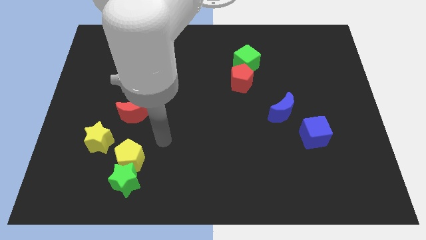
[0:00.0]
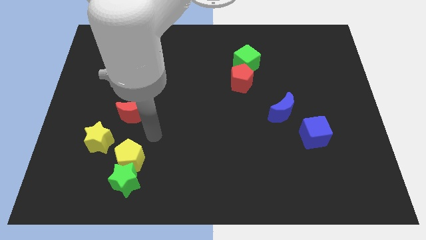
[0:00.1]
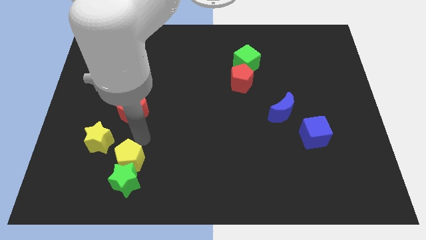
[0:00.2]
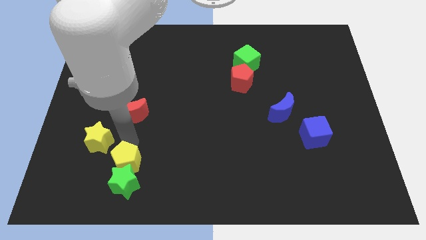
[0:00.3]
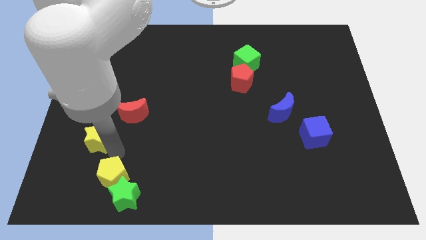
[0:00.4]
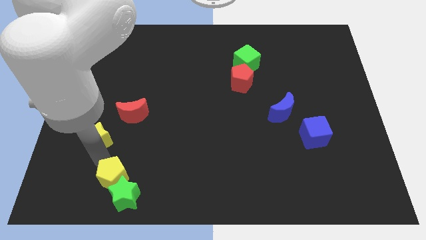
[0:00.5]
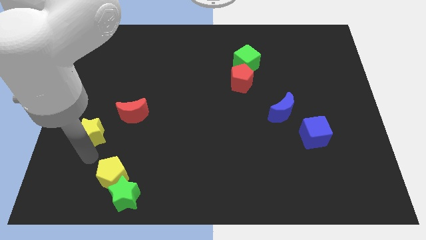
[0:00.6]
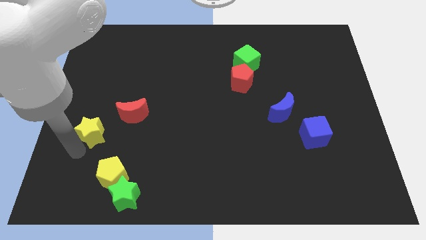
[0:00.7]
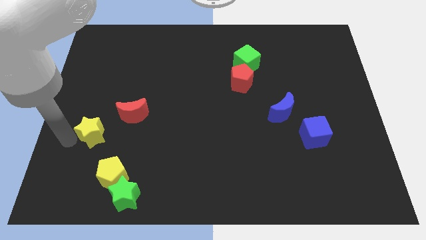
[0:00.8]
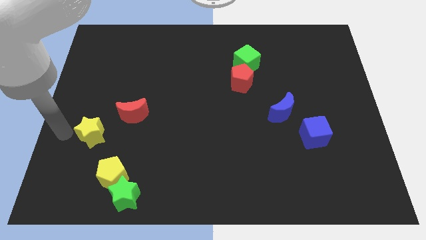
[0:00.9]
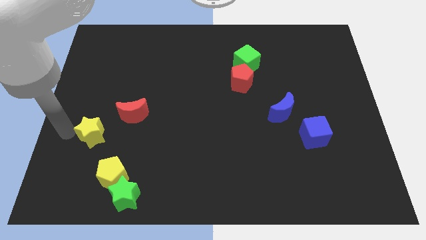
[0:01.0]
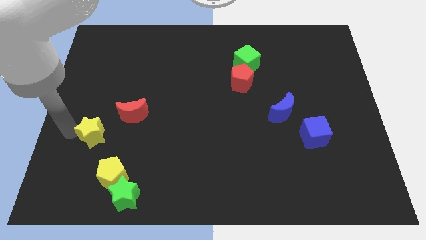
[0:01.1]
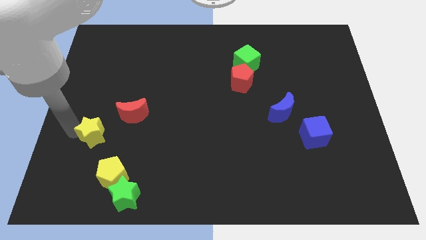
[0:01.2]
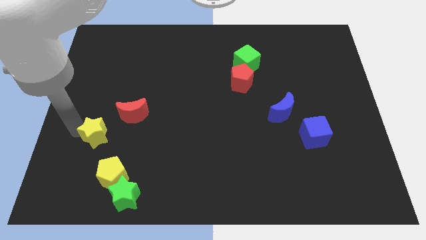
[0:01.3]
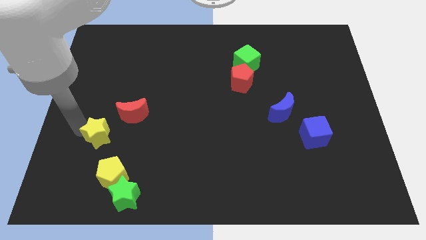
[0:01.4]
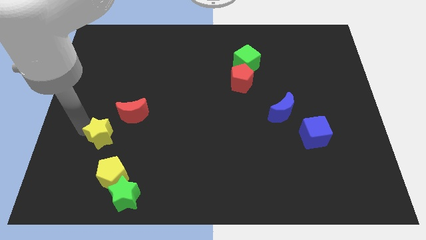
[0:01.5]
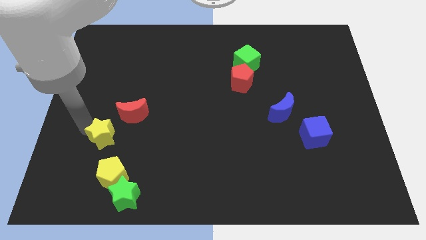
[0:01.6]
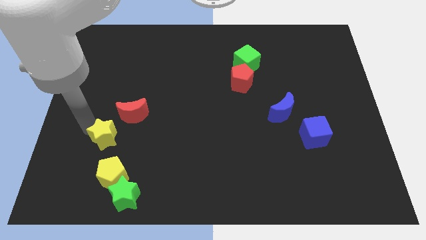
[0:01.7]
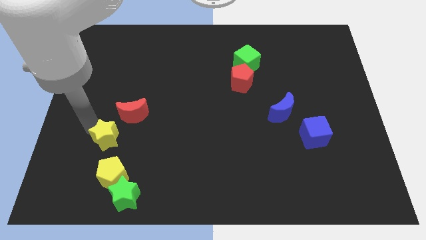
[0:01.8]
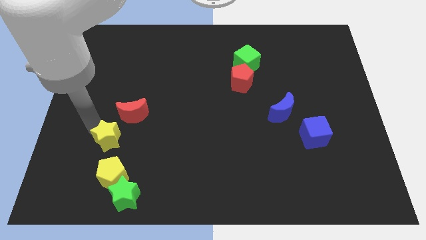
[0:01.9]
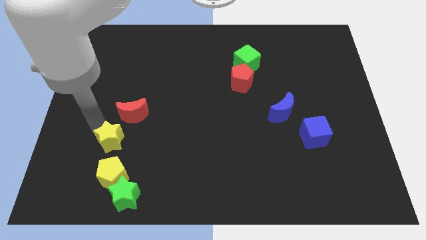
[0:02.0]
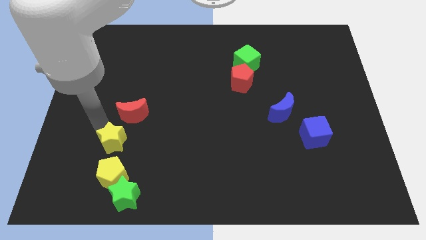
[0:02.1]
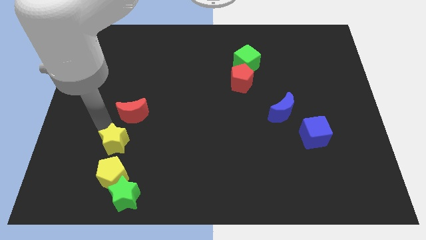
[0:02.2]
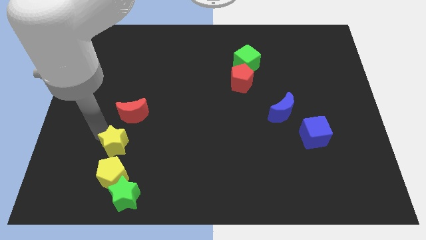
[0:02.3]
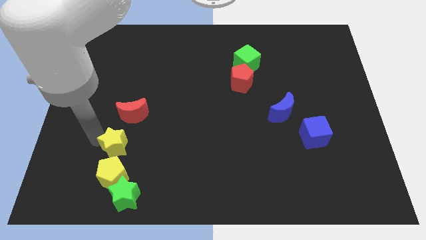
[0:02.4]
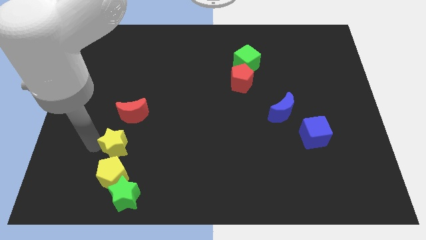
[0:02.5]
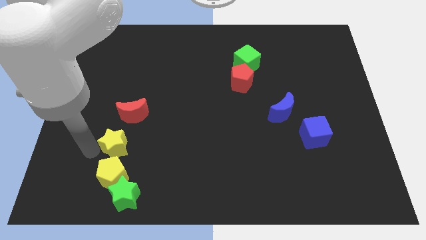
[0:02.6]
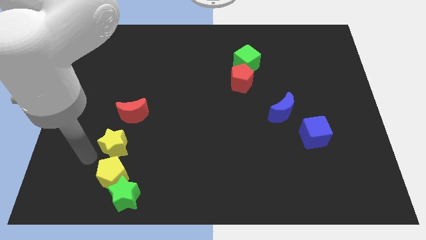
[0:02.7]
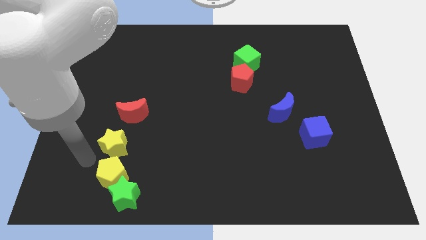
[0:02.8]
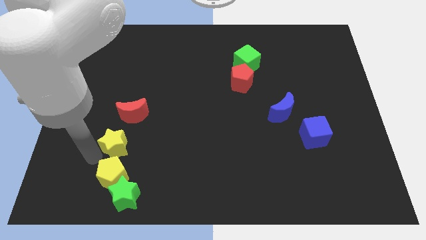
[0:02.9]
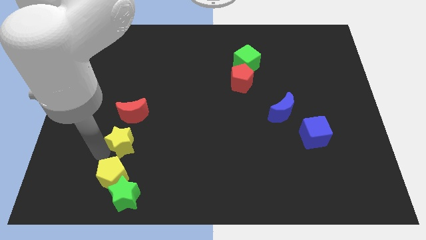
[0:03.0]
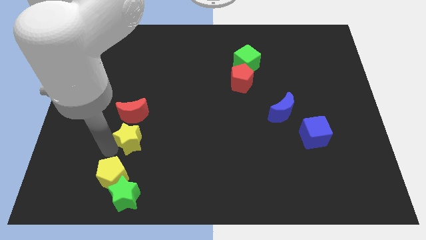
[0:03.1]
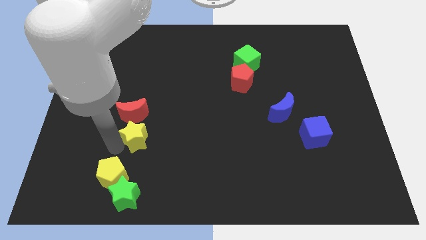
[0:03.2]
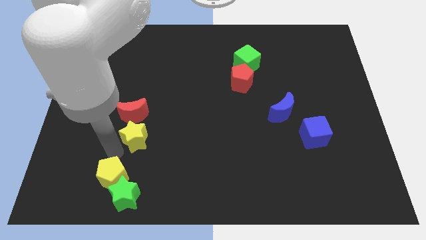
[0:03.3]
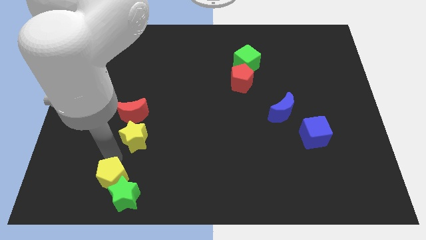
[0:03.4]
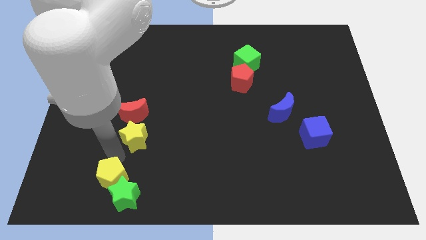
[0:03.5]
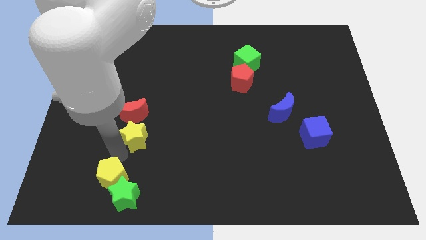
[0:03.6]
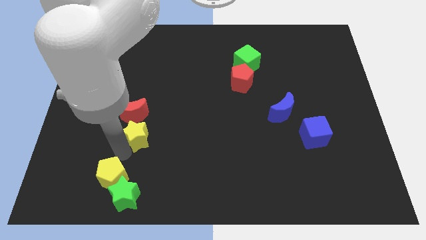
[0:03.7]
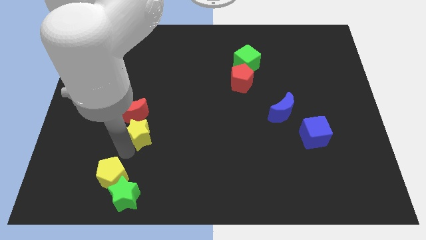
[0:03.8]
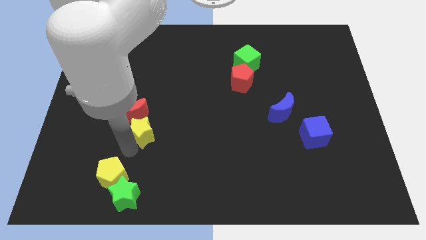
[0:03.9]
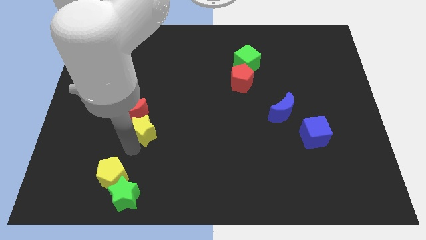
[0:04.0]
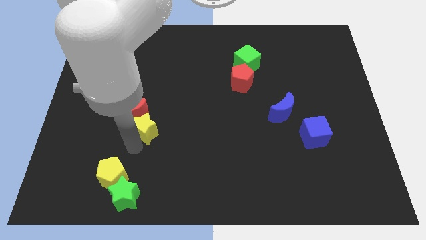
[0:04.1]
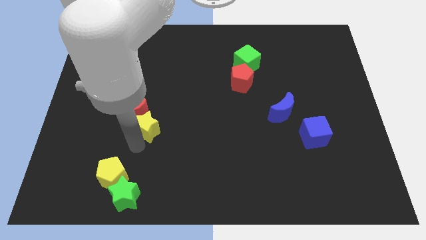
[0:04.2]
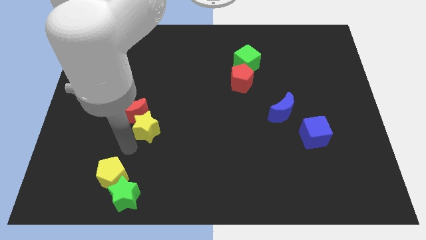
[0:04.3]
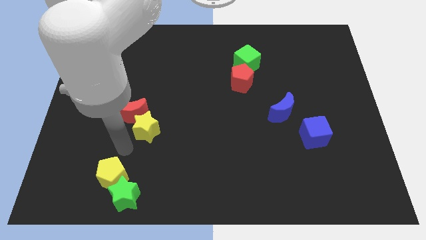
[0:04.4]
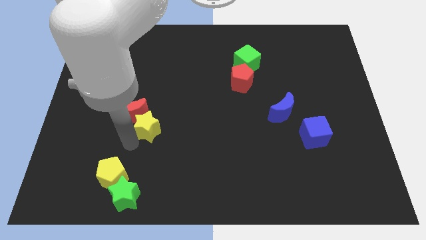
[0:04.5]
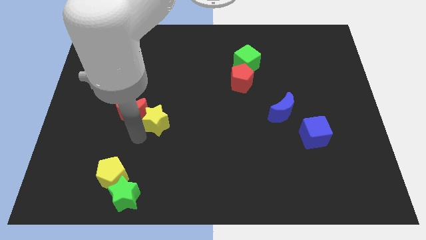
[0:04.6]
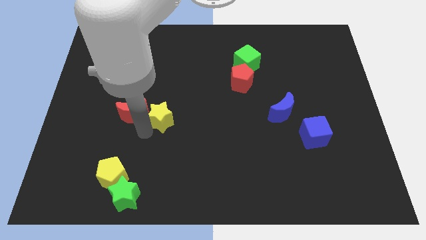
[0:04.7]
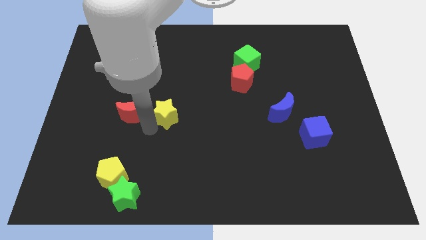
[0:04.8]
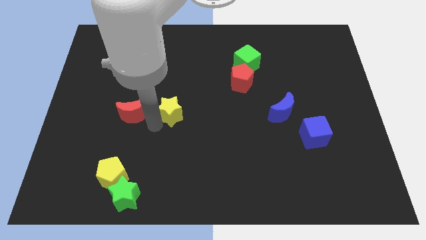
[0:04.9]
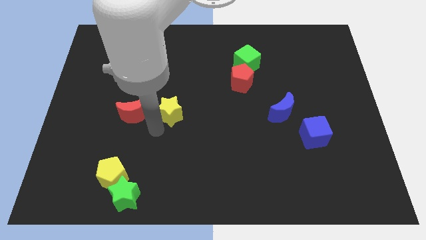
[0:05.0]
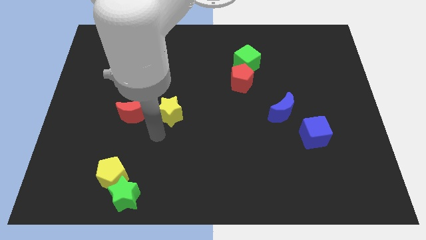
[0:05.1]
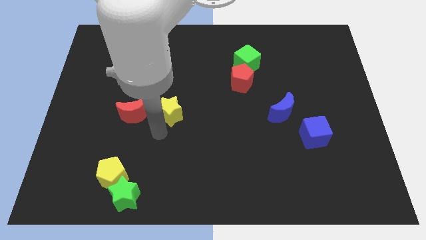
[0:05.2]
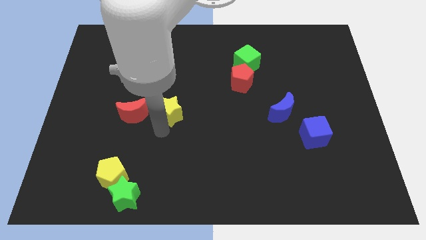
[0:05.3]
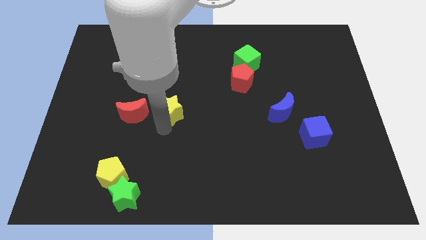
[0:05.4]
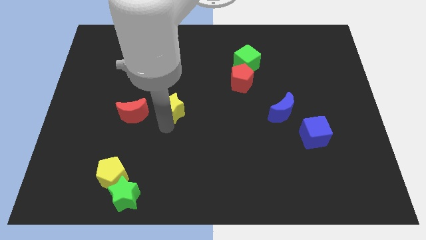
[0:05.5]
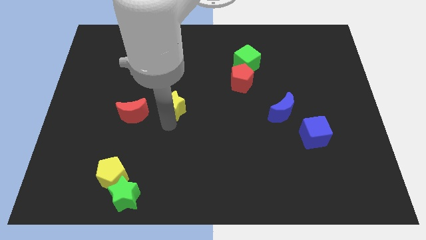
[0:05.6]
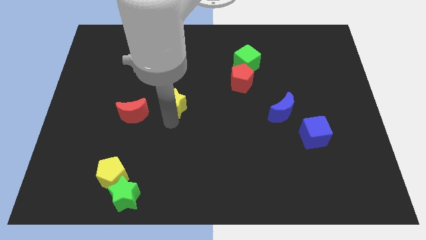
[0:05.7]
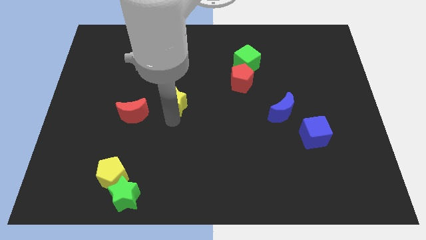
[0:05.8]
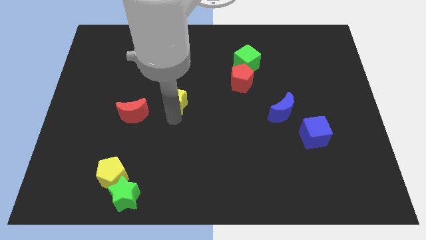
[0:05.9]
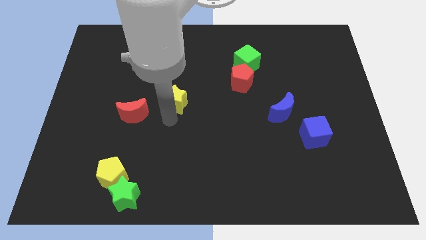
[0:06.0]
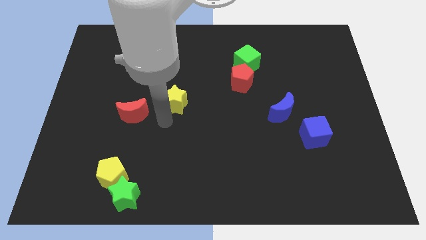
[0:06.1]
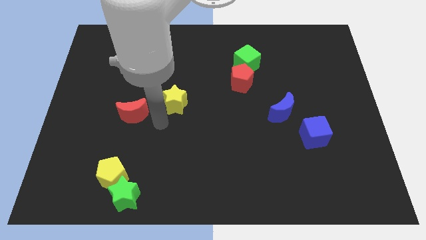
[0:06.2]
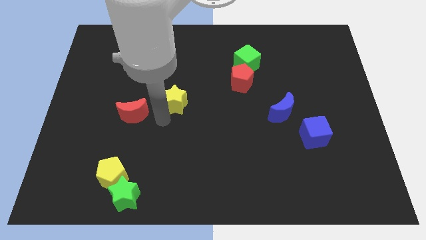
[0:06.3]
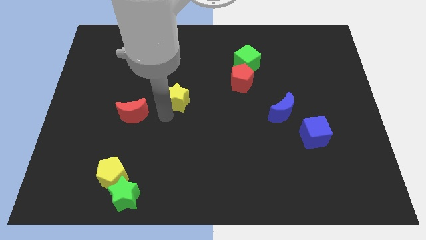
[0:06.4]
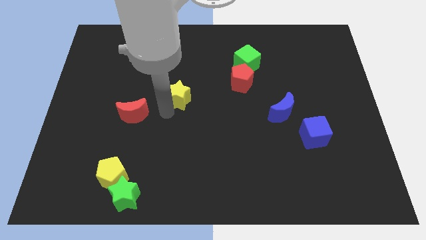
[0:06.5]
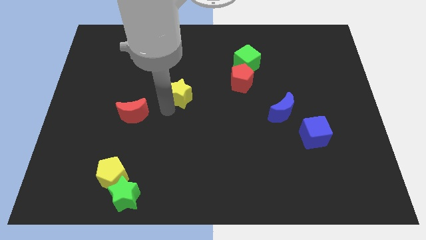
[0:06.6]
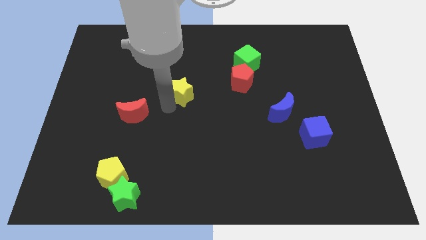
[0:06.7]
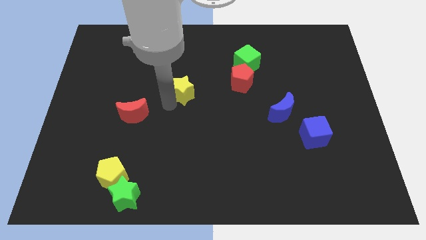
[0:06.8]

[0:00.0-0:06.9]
put the yellow star to the left side of the red pentagon
